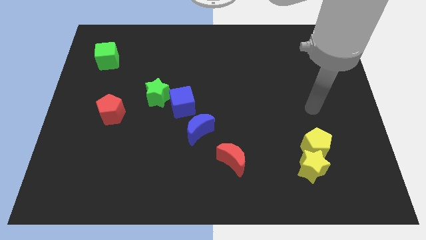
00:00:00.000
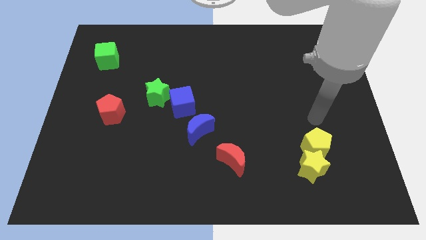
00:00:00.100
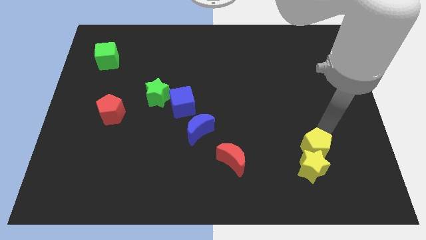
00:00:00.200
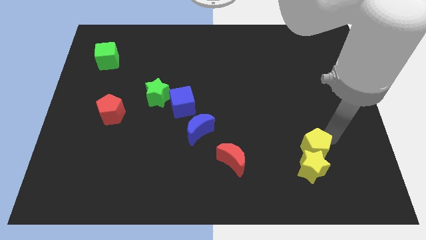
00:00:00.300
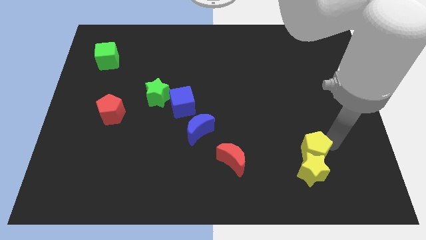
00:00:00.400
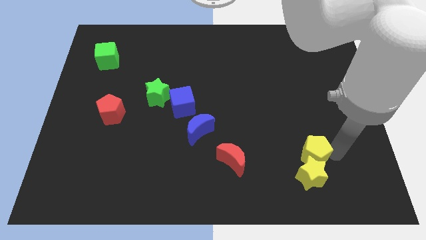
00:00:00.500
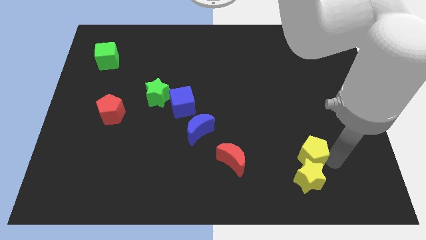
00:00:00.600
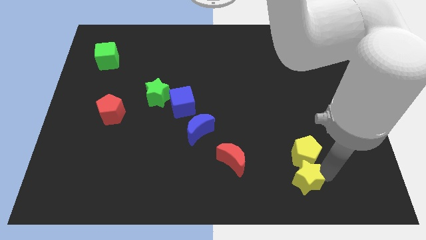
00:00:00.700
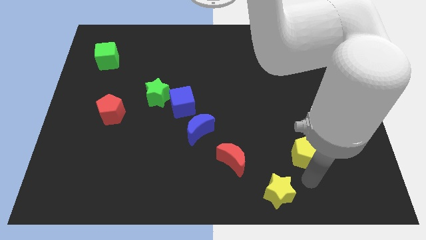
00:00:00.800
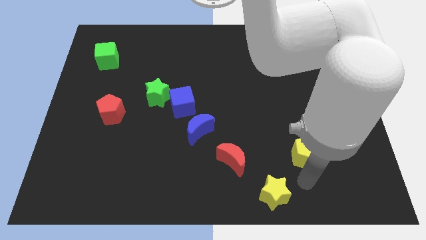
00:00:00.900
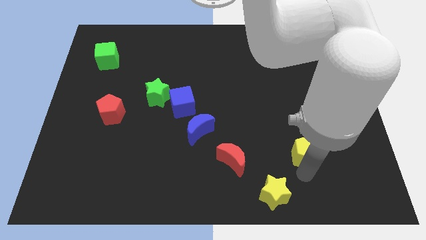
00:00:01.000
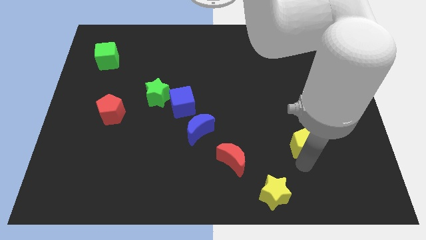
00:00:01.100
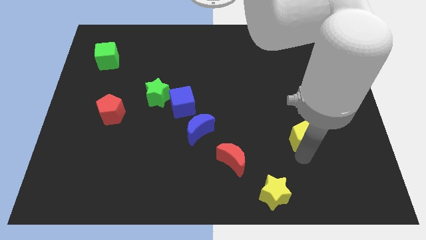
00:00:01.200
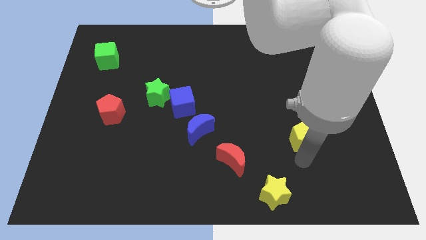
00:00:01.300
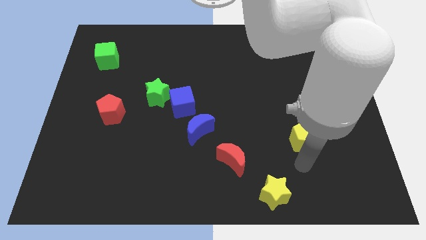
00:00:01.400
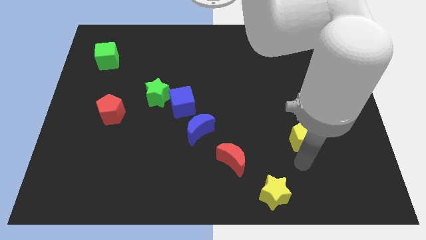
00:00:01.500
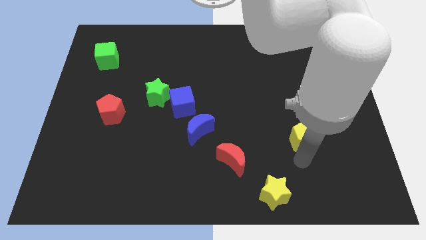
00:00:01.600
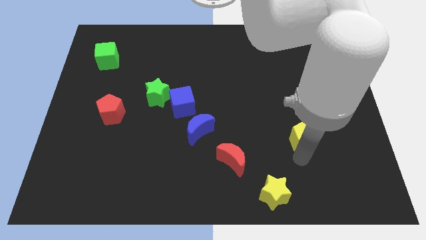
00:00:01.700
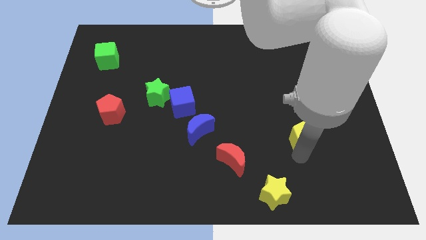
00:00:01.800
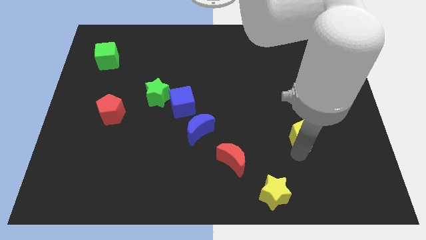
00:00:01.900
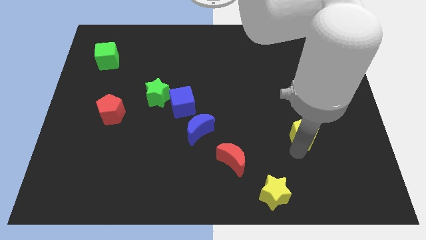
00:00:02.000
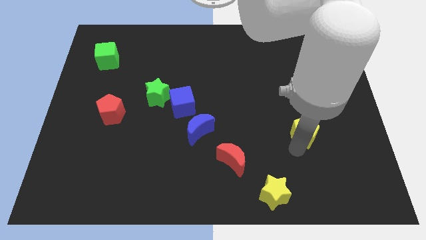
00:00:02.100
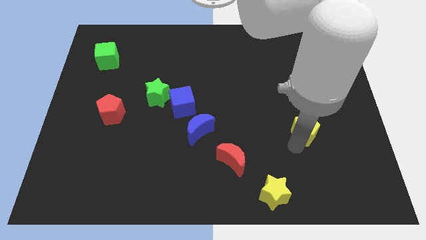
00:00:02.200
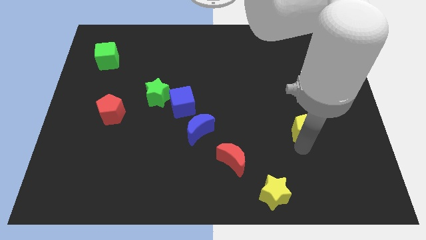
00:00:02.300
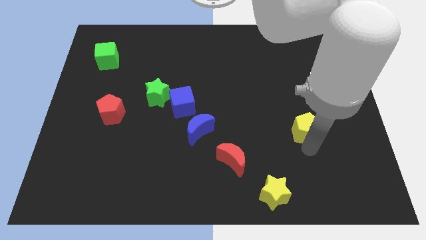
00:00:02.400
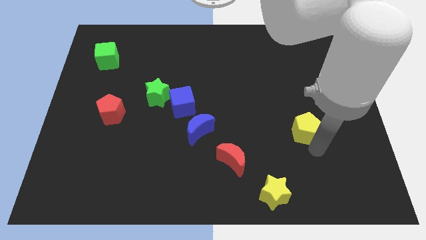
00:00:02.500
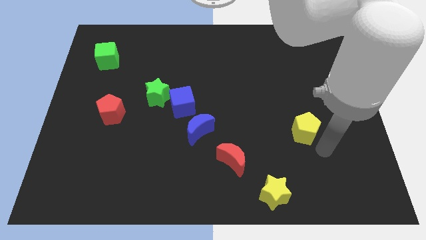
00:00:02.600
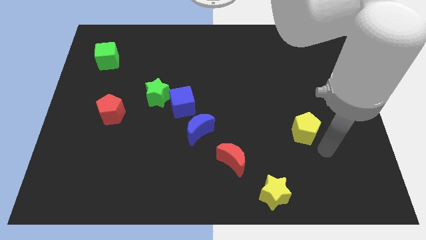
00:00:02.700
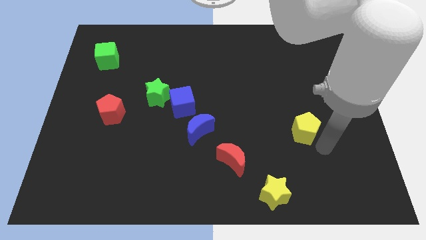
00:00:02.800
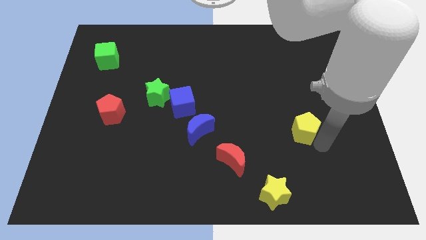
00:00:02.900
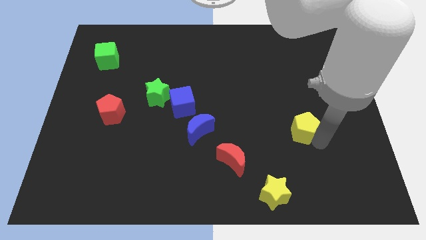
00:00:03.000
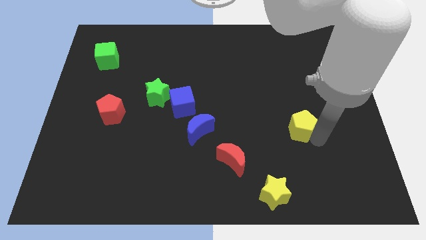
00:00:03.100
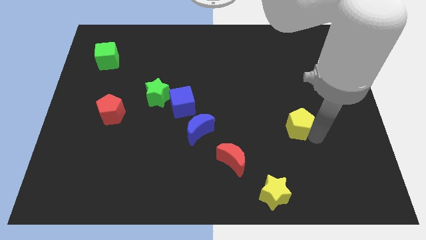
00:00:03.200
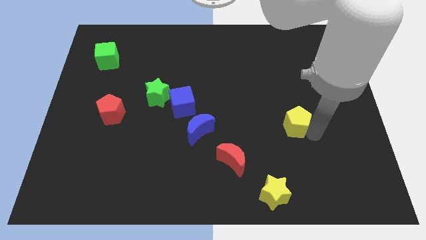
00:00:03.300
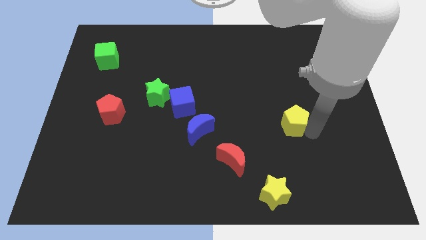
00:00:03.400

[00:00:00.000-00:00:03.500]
move the yellow pentagon upwards and left slightly

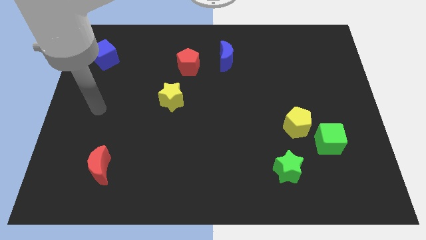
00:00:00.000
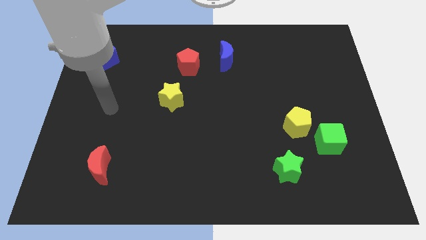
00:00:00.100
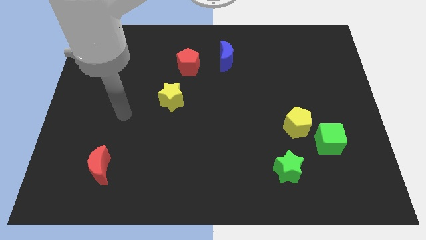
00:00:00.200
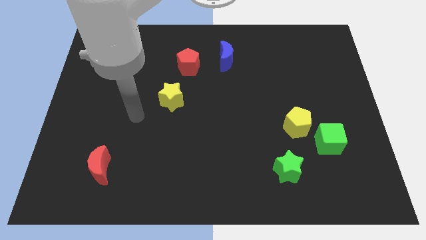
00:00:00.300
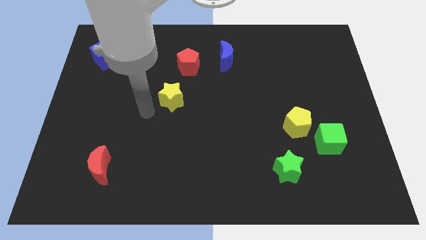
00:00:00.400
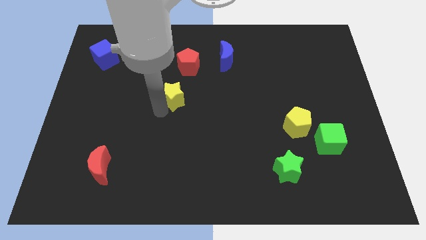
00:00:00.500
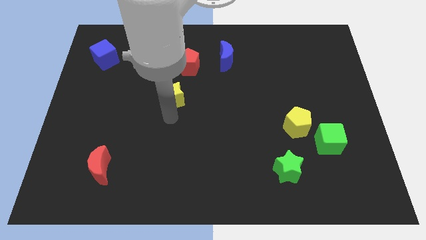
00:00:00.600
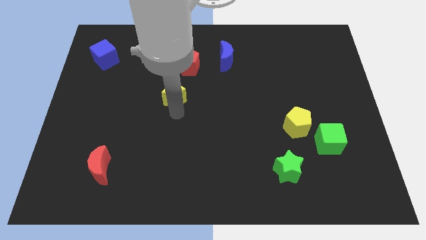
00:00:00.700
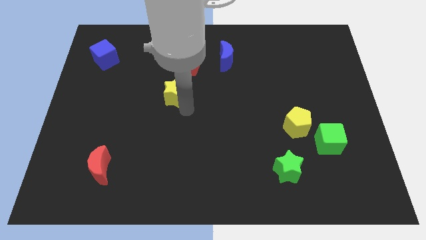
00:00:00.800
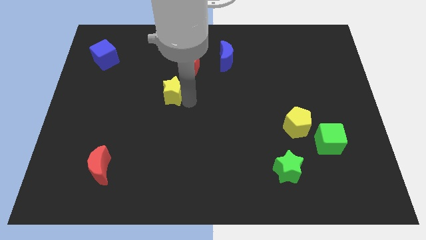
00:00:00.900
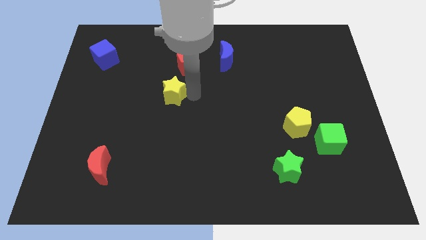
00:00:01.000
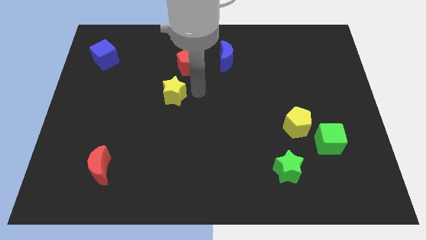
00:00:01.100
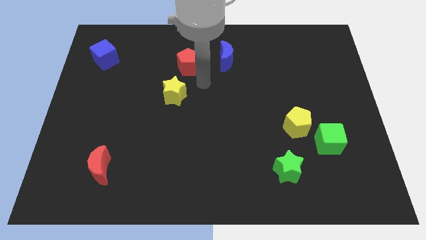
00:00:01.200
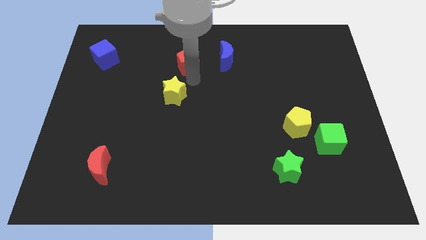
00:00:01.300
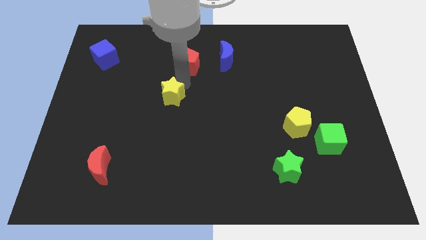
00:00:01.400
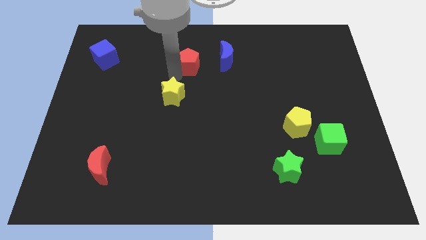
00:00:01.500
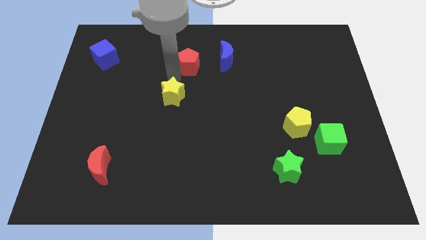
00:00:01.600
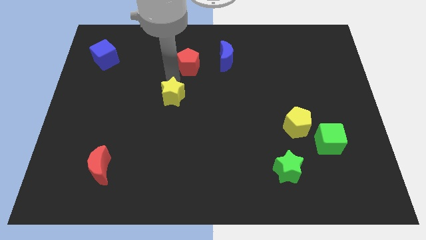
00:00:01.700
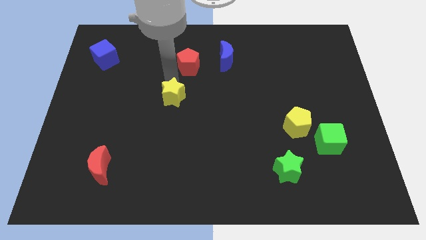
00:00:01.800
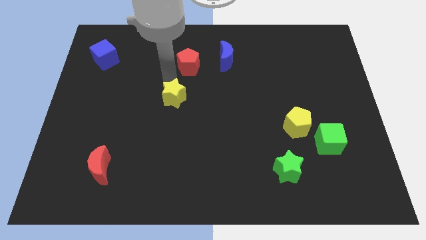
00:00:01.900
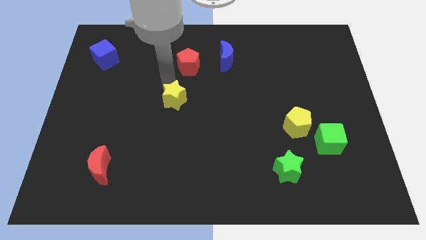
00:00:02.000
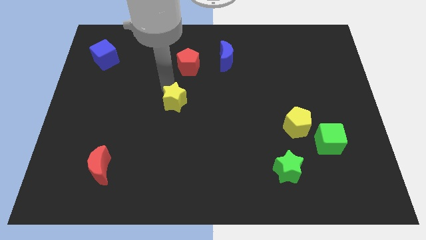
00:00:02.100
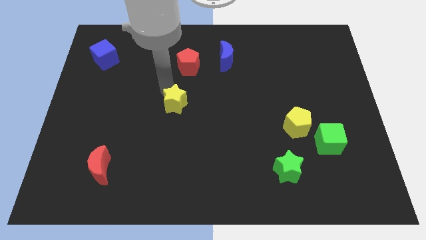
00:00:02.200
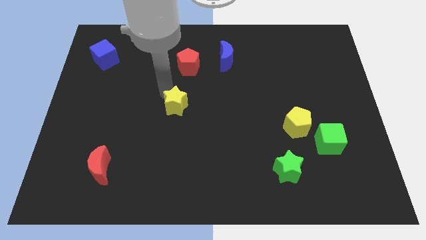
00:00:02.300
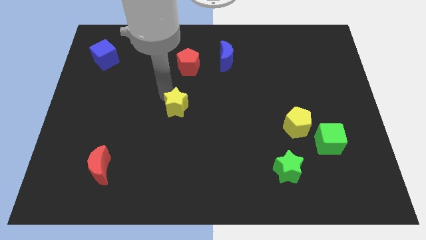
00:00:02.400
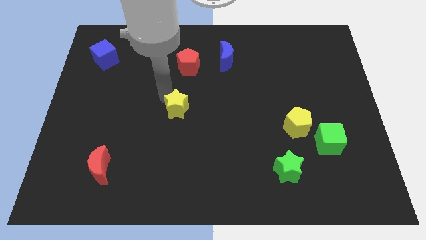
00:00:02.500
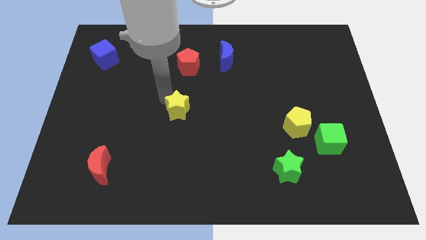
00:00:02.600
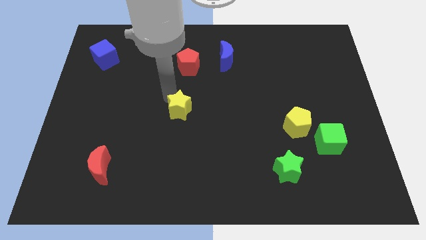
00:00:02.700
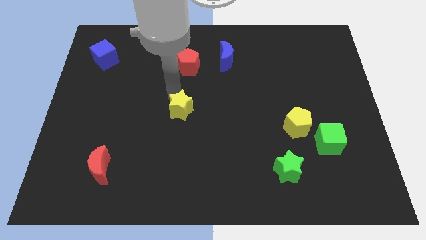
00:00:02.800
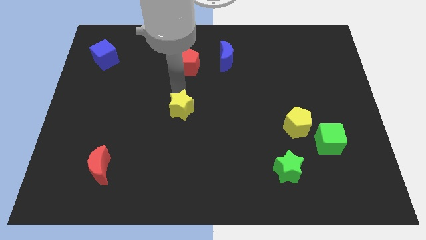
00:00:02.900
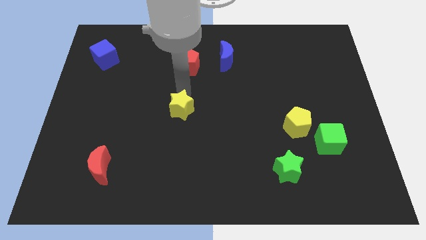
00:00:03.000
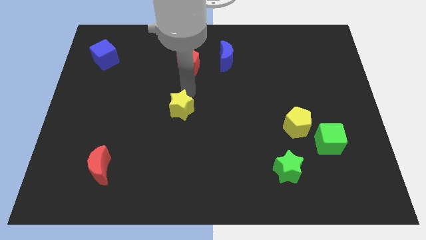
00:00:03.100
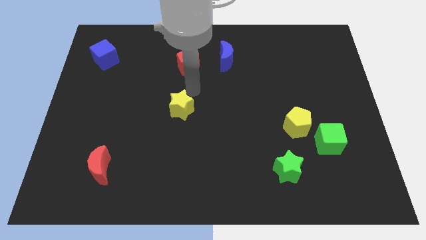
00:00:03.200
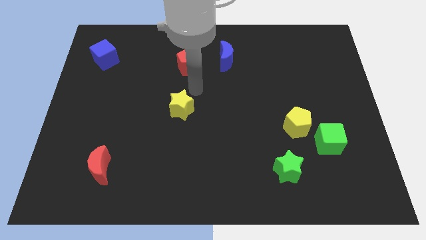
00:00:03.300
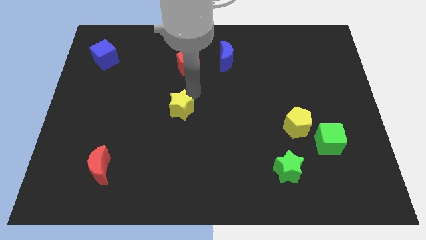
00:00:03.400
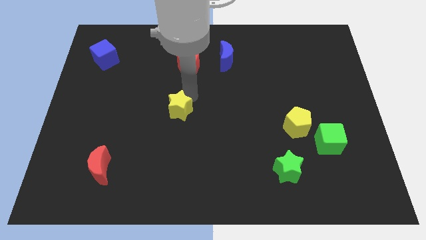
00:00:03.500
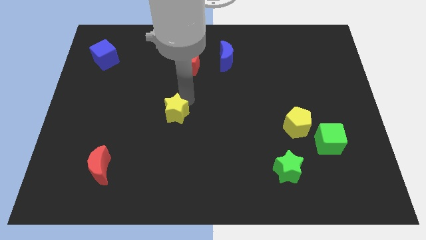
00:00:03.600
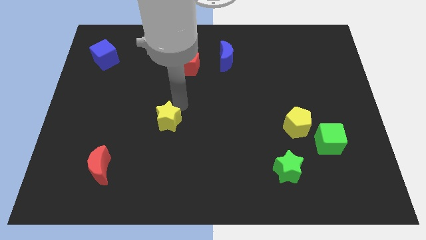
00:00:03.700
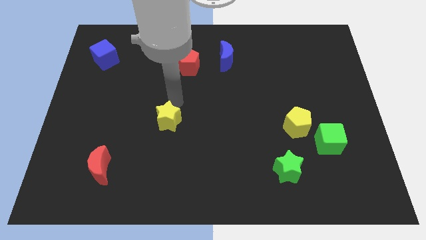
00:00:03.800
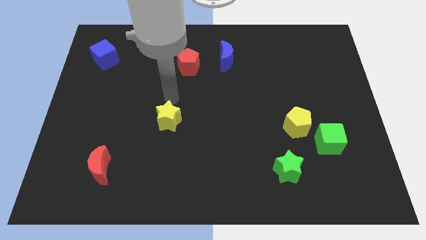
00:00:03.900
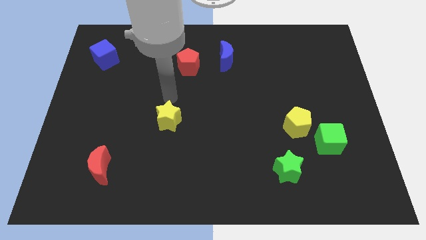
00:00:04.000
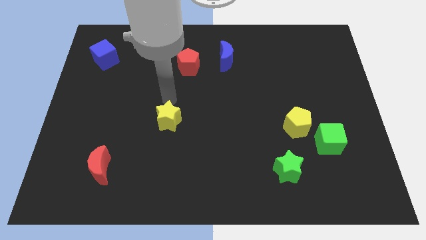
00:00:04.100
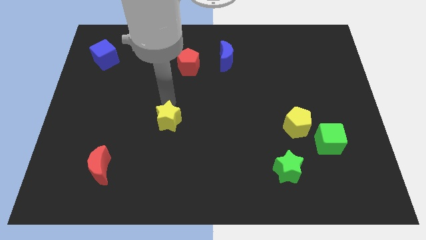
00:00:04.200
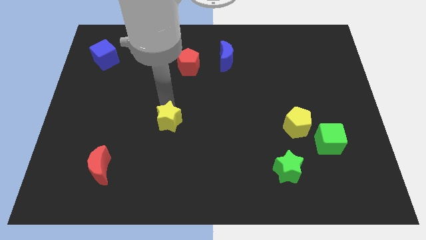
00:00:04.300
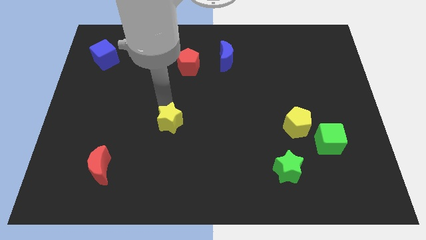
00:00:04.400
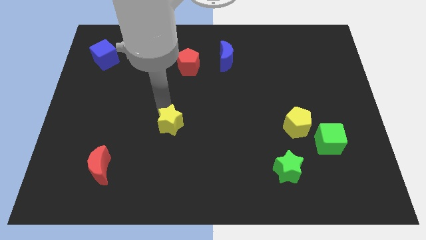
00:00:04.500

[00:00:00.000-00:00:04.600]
move the yellow star somewhat down
